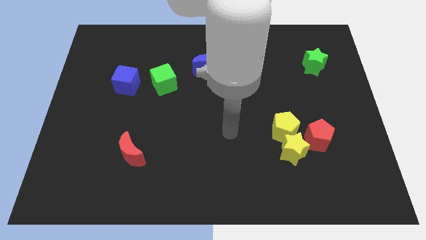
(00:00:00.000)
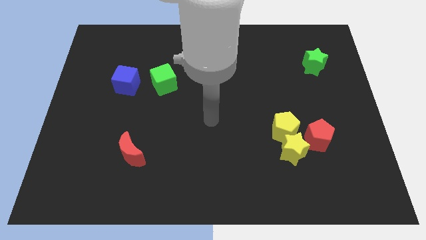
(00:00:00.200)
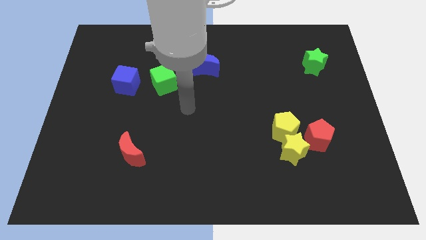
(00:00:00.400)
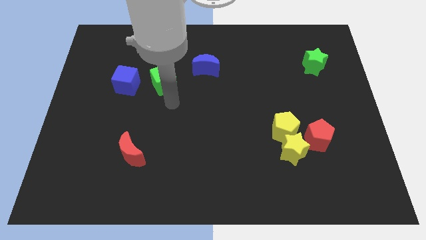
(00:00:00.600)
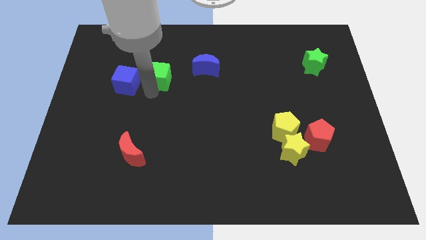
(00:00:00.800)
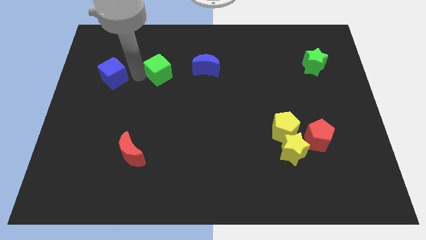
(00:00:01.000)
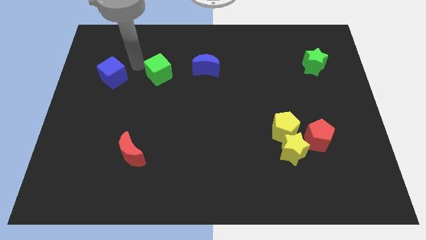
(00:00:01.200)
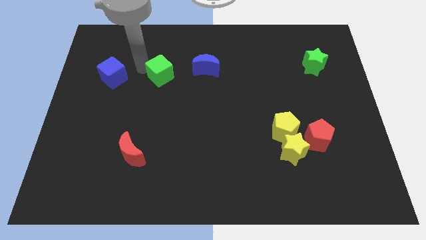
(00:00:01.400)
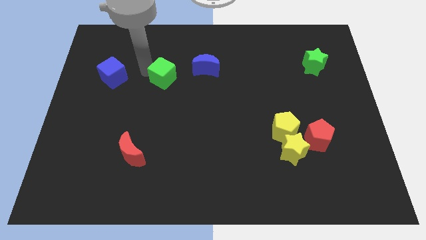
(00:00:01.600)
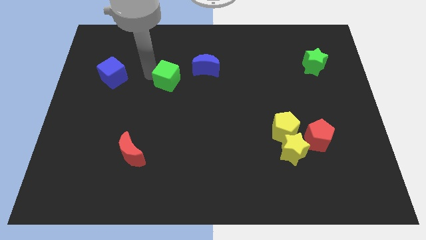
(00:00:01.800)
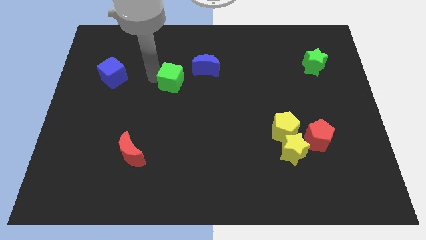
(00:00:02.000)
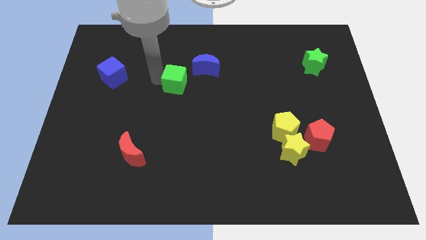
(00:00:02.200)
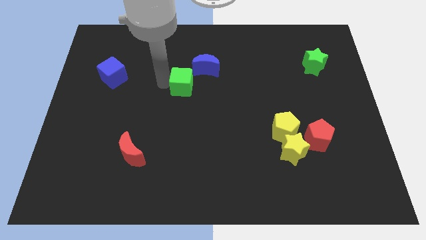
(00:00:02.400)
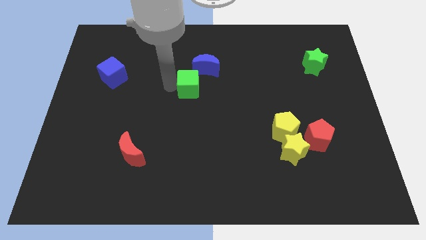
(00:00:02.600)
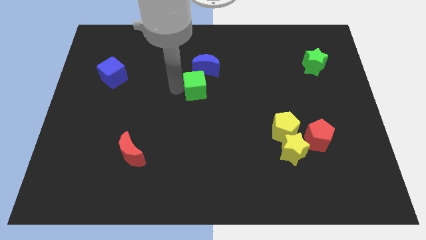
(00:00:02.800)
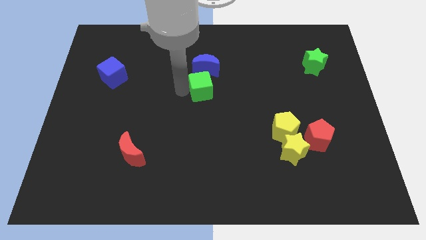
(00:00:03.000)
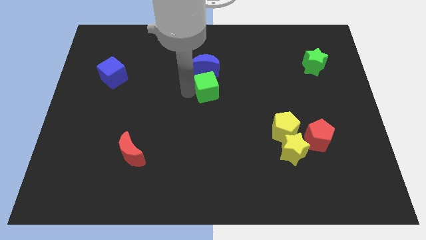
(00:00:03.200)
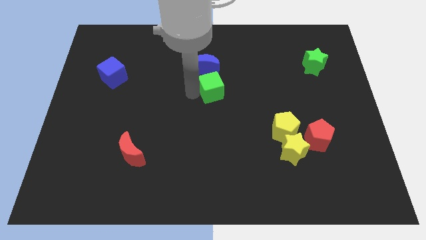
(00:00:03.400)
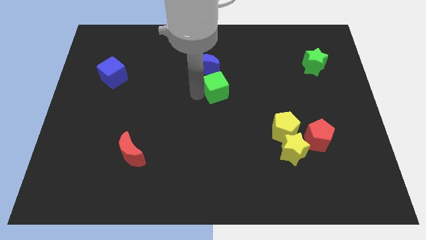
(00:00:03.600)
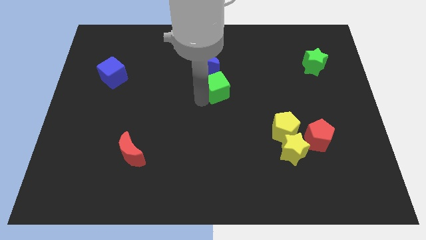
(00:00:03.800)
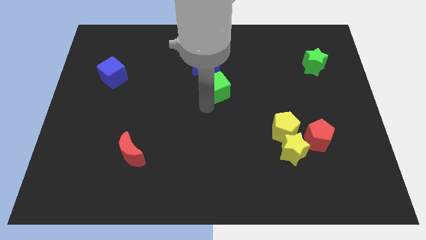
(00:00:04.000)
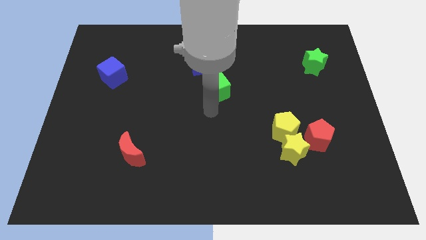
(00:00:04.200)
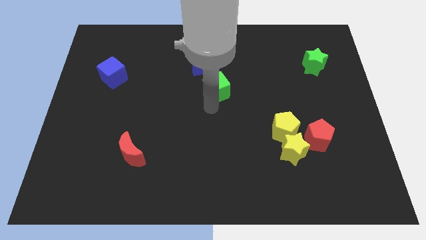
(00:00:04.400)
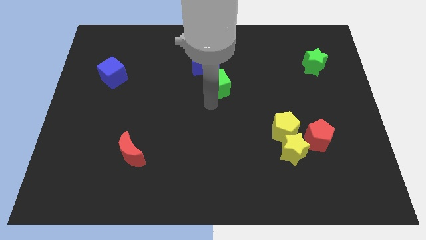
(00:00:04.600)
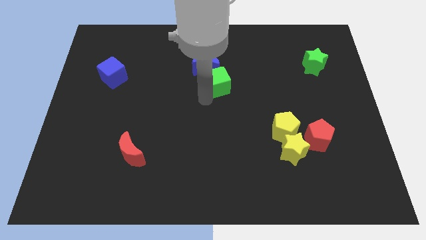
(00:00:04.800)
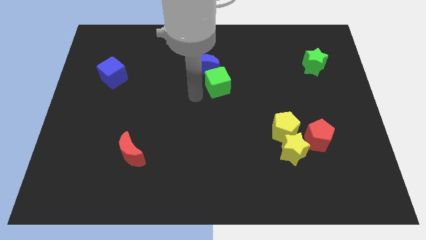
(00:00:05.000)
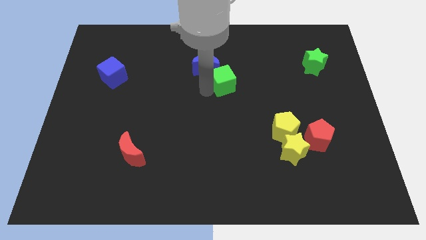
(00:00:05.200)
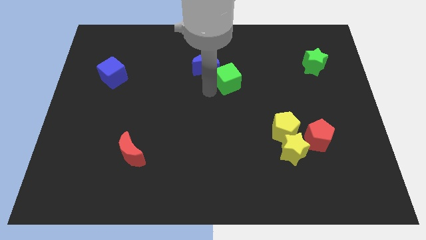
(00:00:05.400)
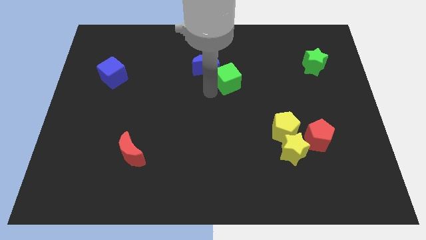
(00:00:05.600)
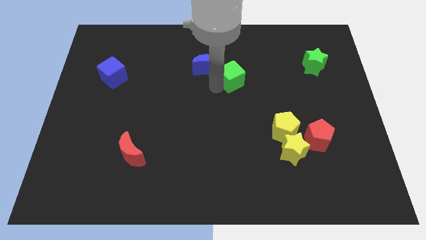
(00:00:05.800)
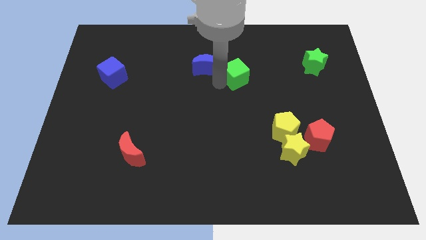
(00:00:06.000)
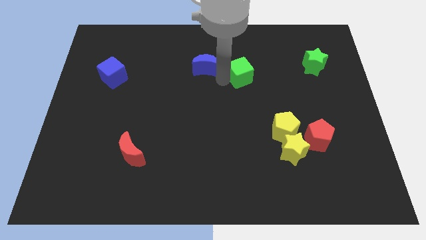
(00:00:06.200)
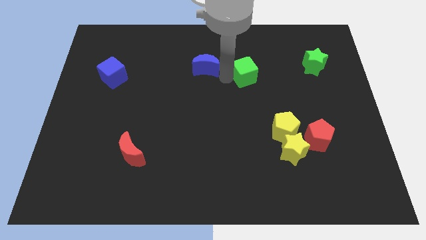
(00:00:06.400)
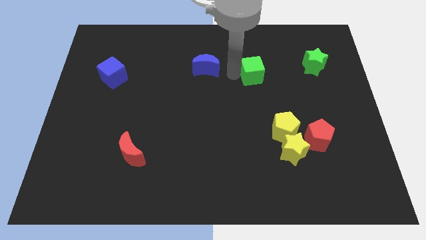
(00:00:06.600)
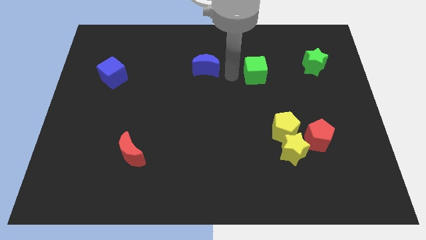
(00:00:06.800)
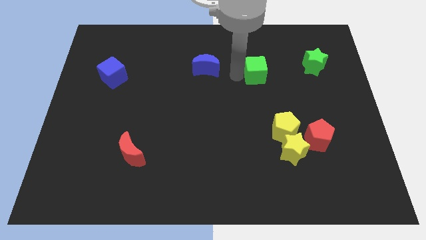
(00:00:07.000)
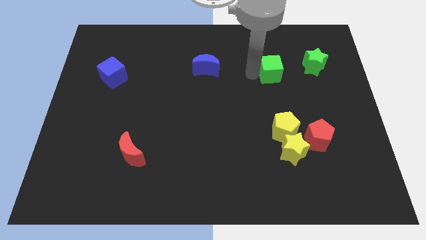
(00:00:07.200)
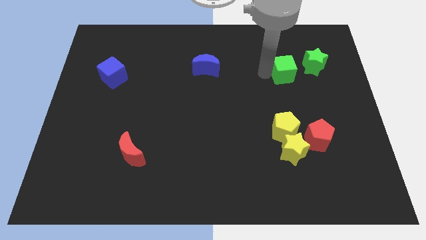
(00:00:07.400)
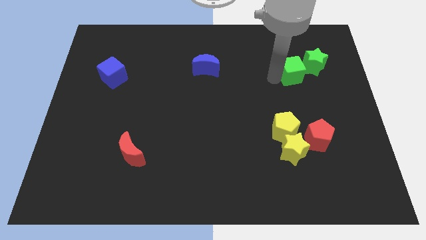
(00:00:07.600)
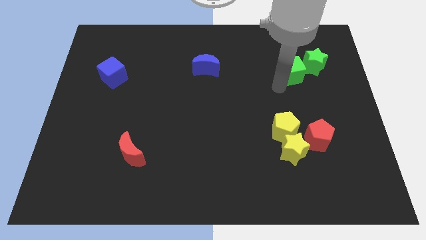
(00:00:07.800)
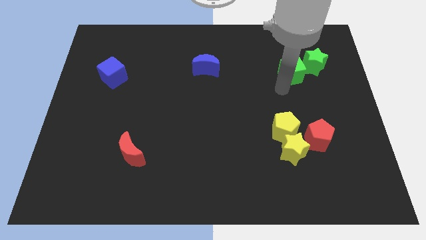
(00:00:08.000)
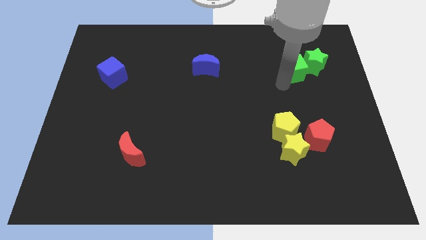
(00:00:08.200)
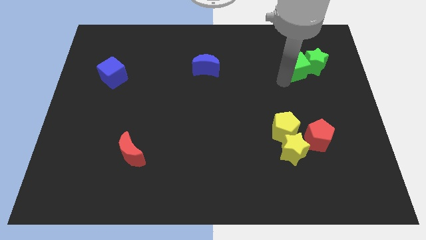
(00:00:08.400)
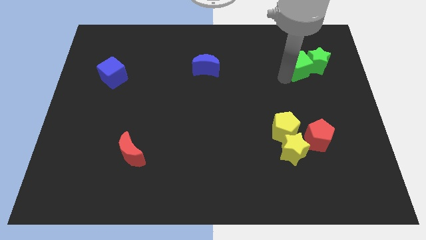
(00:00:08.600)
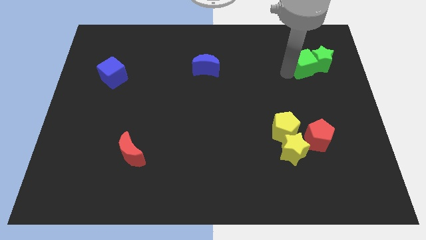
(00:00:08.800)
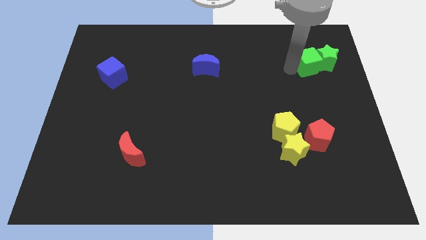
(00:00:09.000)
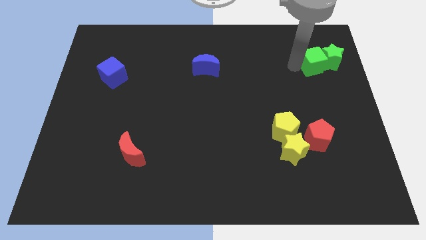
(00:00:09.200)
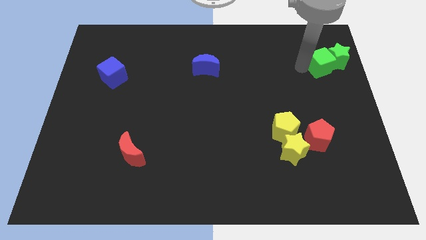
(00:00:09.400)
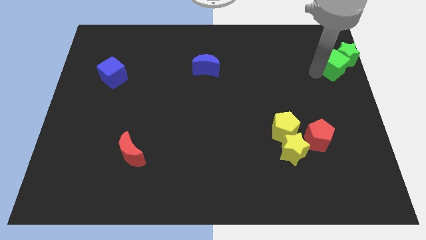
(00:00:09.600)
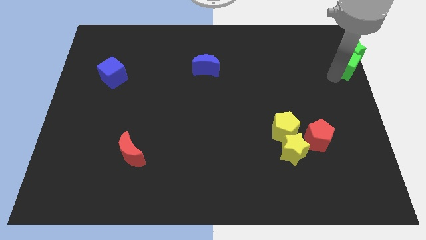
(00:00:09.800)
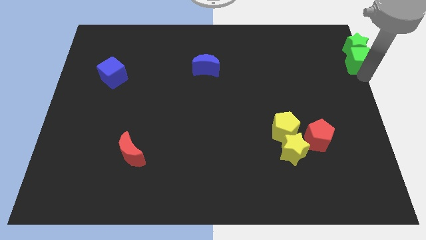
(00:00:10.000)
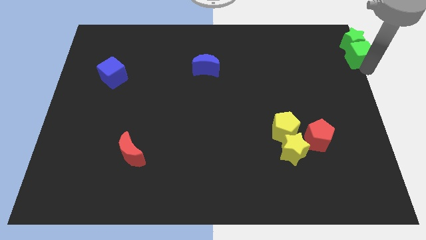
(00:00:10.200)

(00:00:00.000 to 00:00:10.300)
move the green cube to the top right of the board

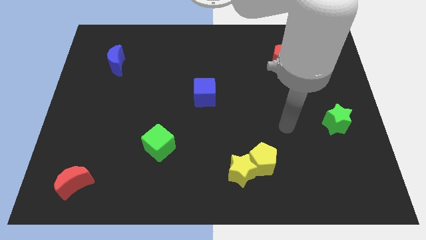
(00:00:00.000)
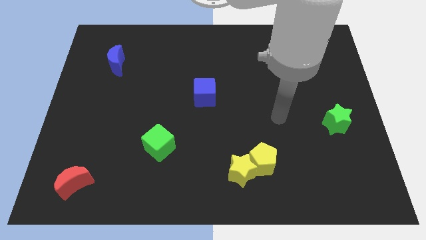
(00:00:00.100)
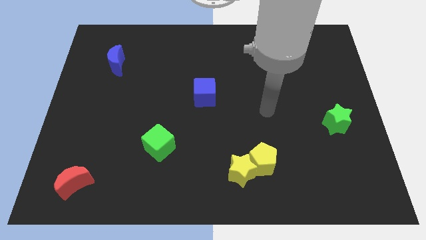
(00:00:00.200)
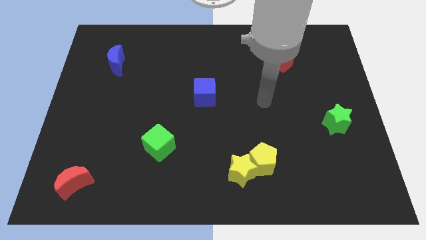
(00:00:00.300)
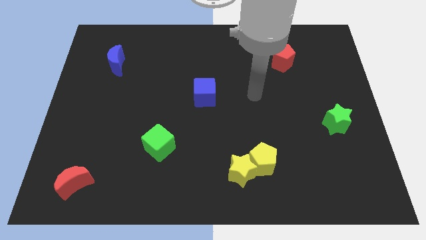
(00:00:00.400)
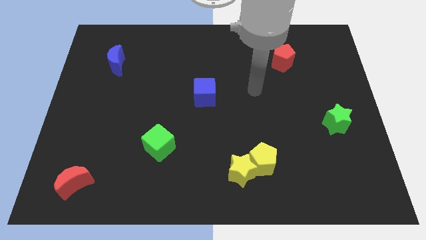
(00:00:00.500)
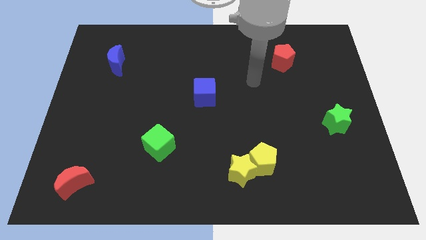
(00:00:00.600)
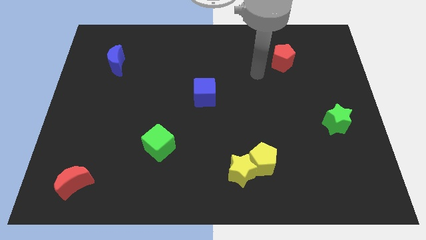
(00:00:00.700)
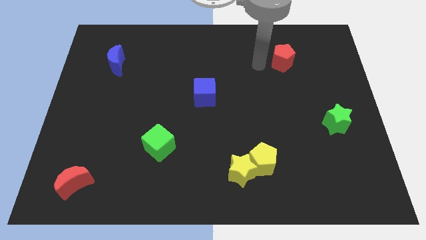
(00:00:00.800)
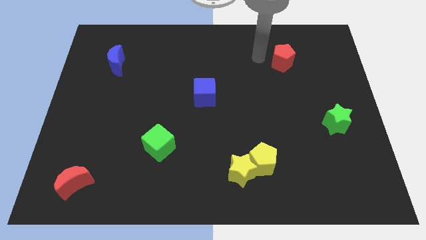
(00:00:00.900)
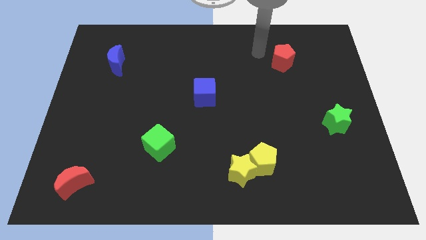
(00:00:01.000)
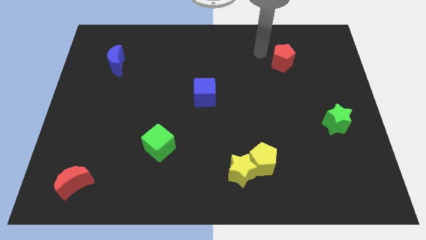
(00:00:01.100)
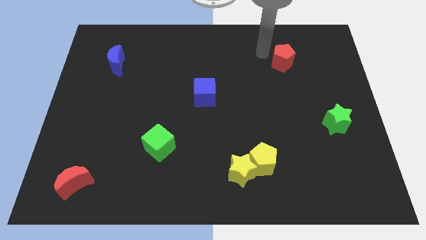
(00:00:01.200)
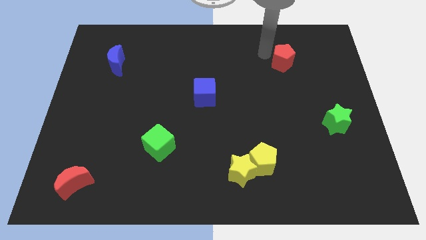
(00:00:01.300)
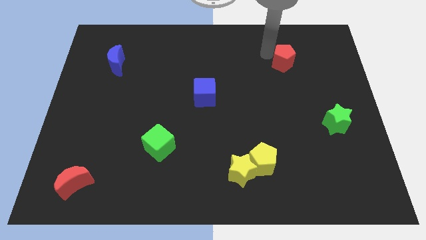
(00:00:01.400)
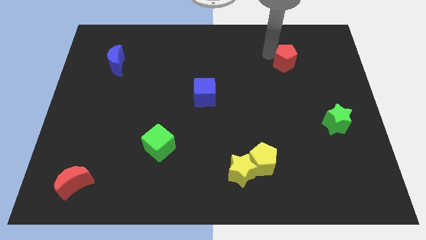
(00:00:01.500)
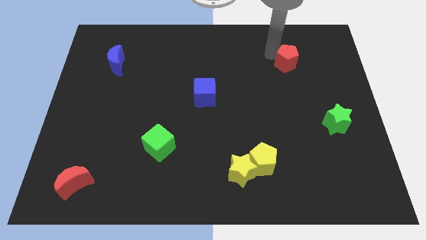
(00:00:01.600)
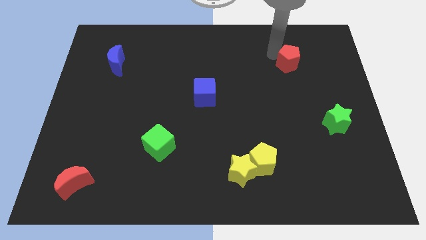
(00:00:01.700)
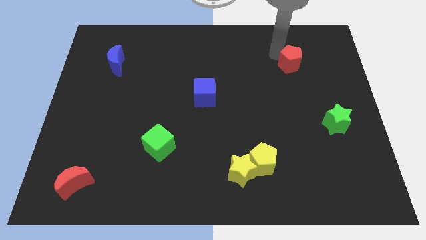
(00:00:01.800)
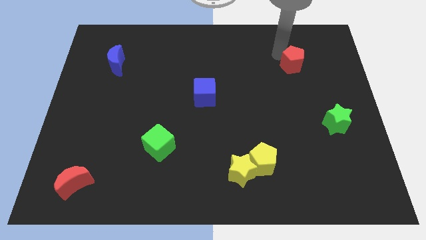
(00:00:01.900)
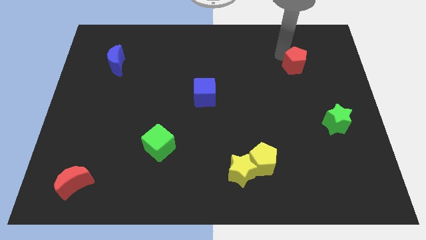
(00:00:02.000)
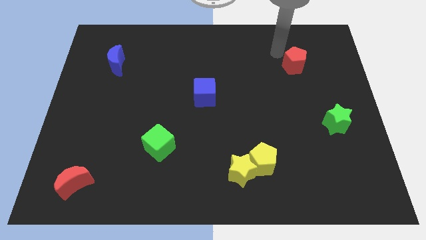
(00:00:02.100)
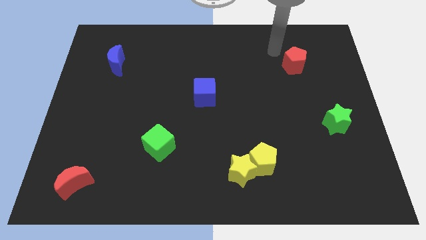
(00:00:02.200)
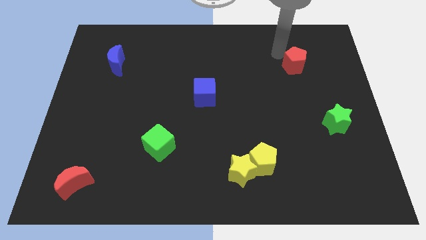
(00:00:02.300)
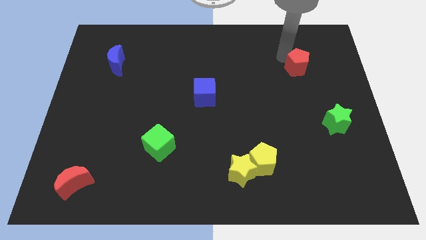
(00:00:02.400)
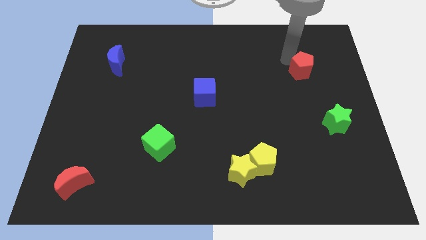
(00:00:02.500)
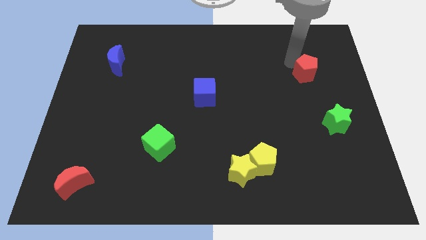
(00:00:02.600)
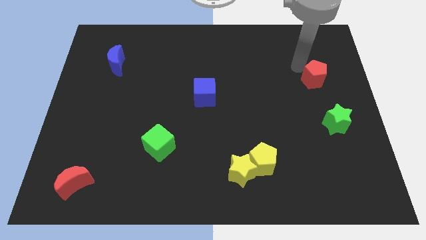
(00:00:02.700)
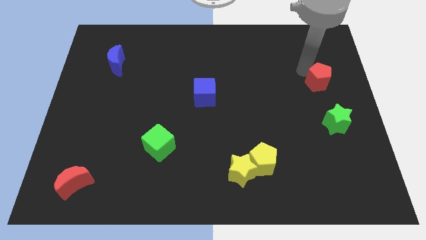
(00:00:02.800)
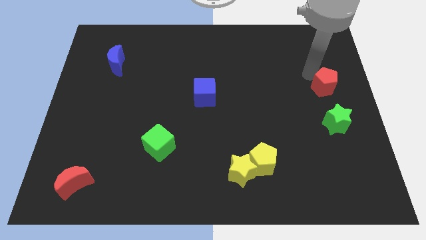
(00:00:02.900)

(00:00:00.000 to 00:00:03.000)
push the red pentagon to the center right
